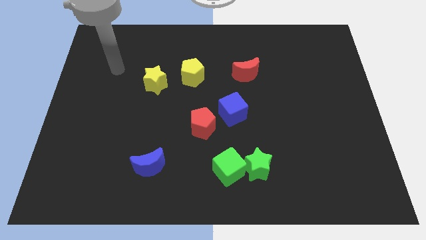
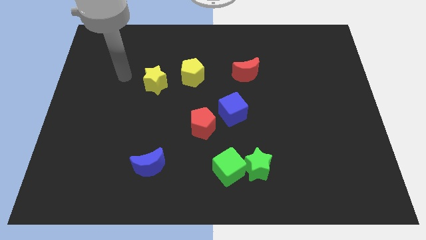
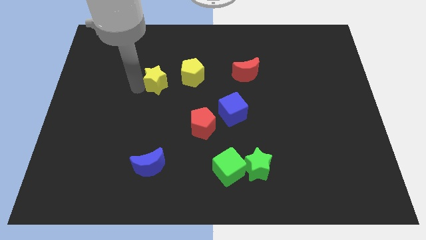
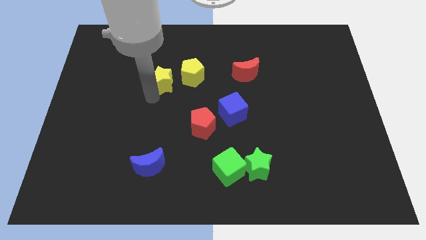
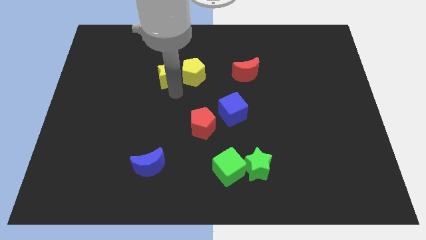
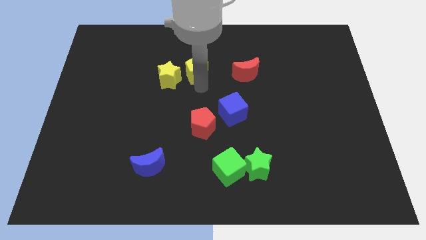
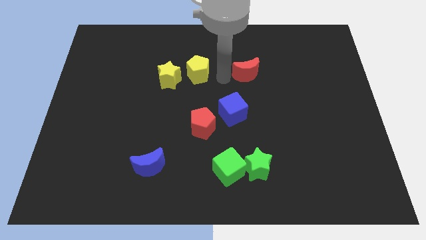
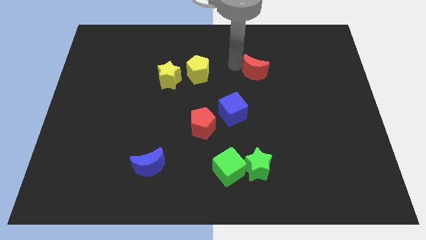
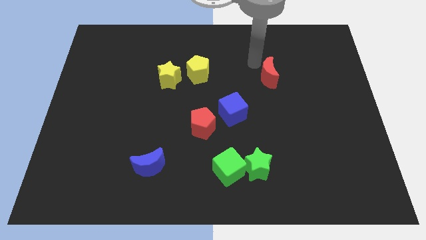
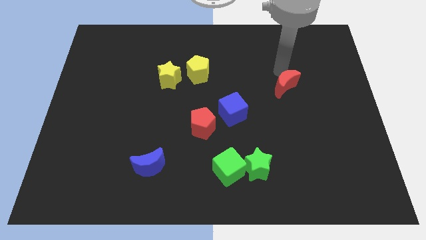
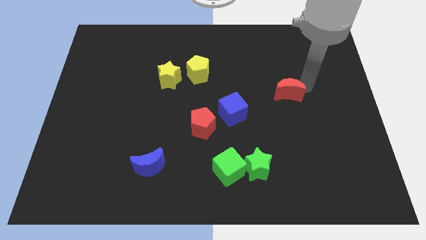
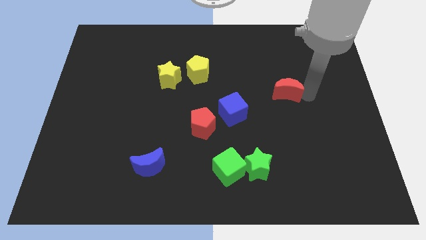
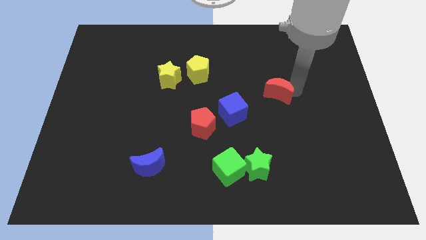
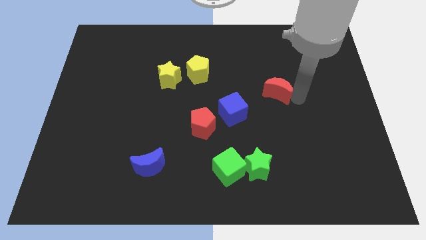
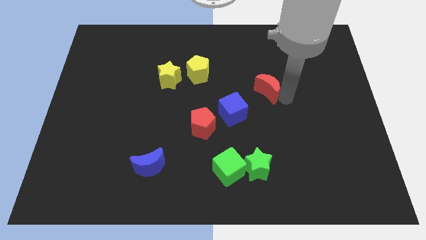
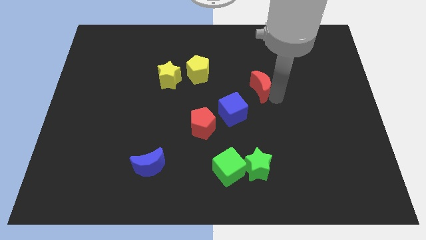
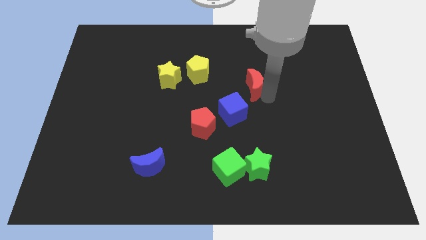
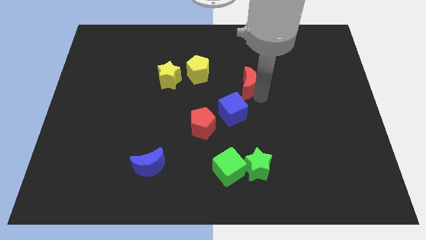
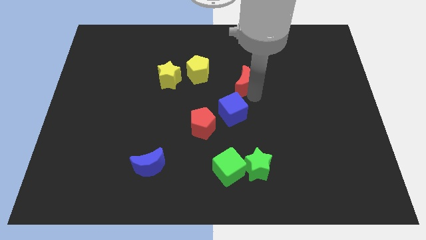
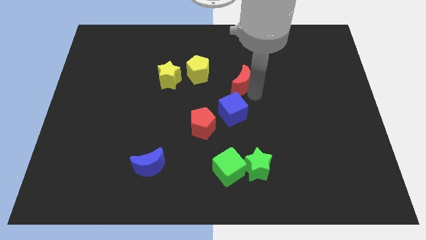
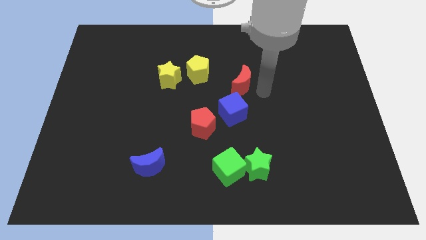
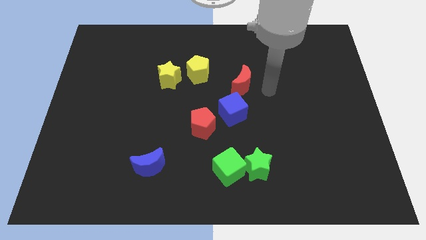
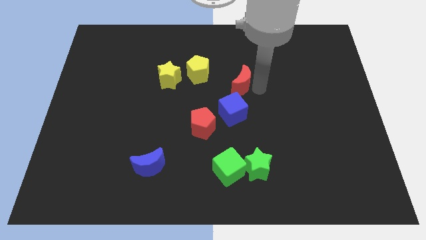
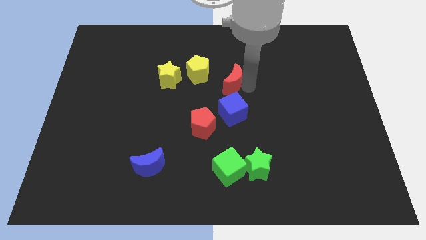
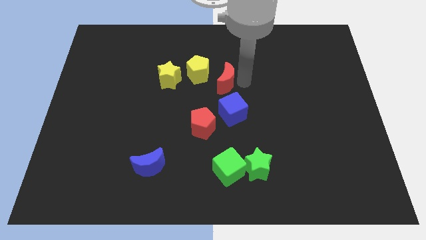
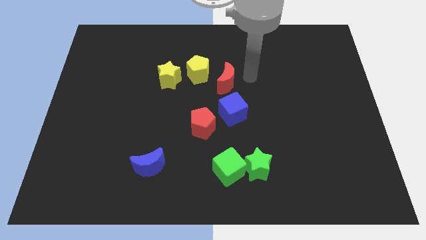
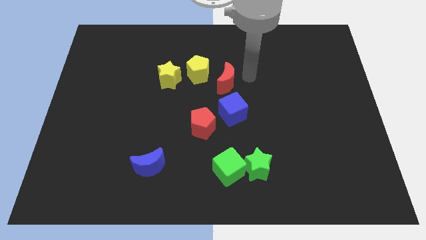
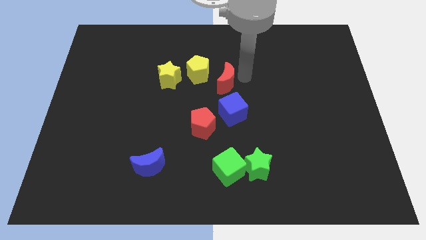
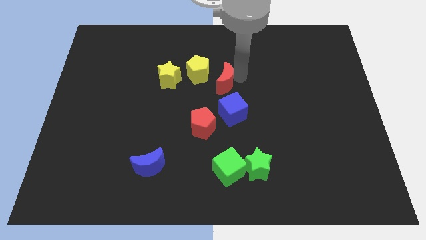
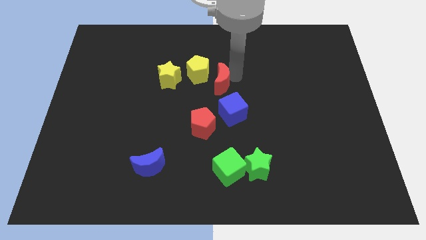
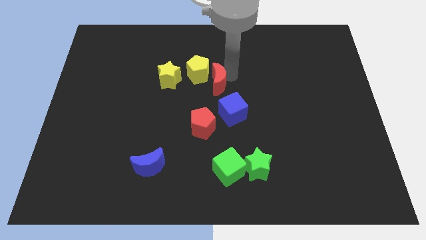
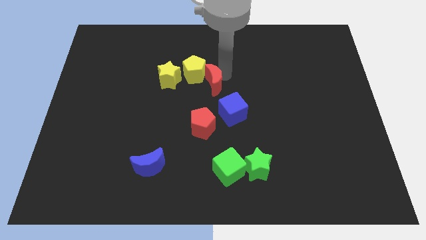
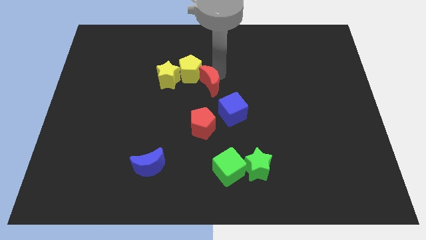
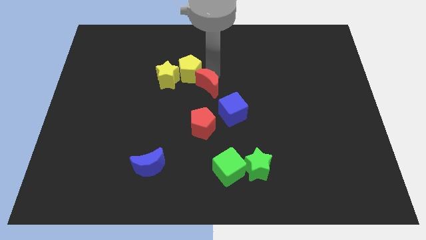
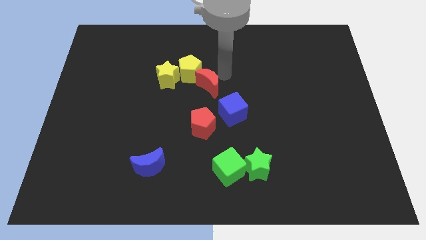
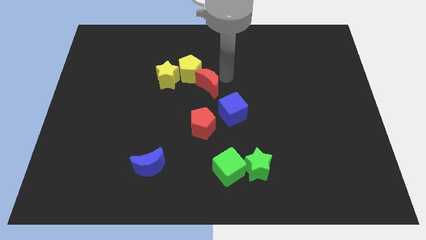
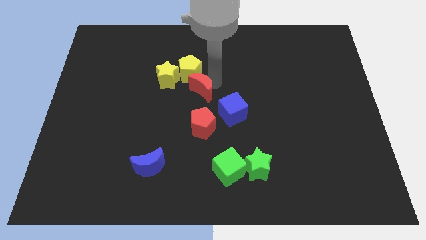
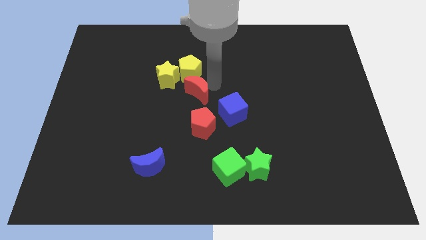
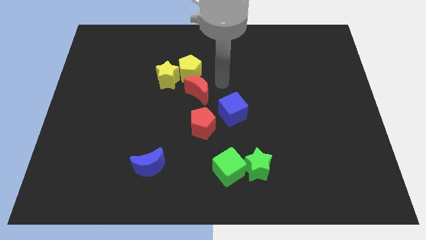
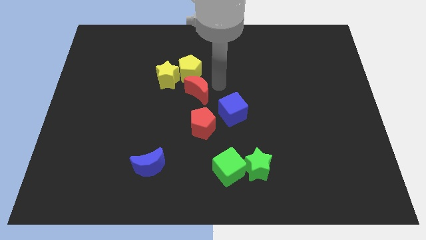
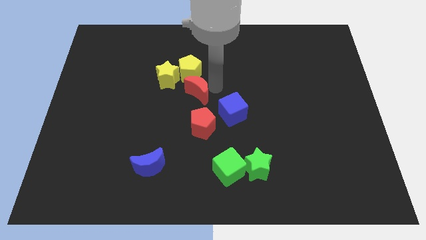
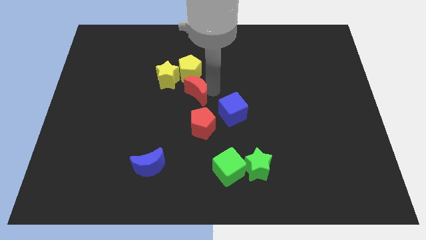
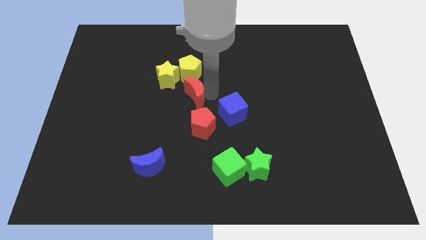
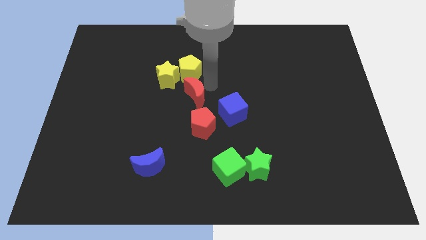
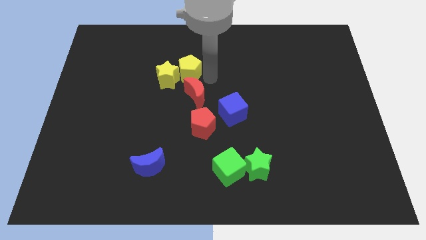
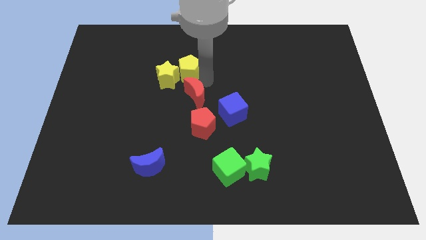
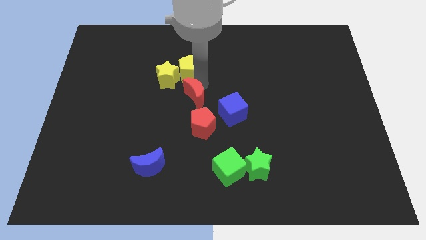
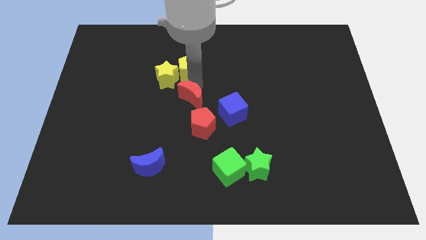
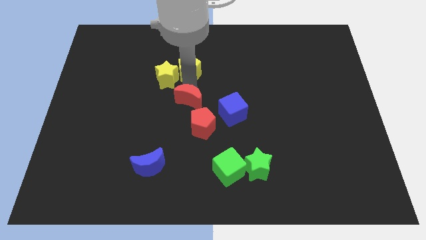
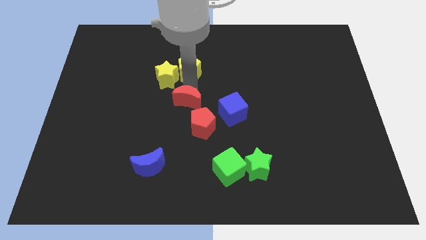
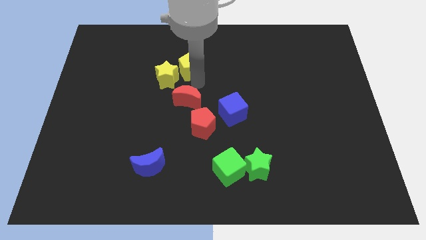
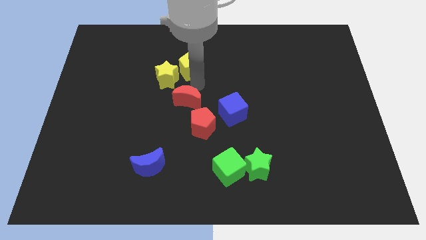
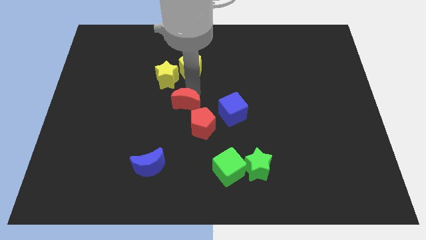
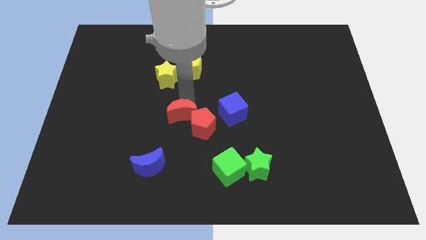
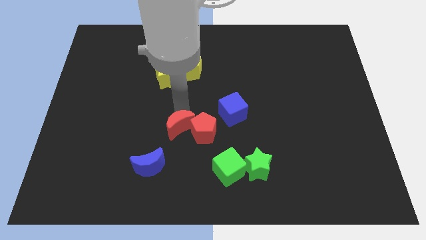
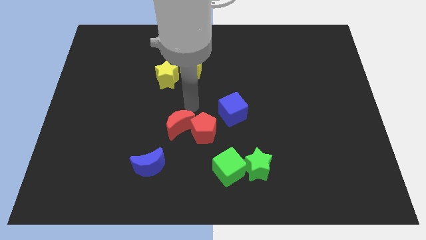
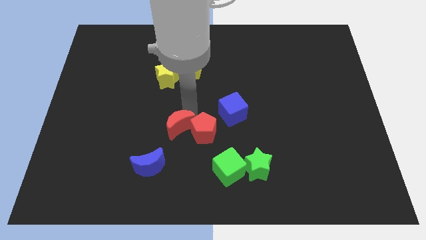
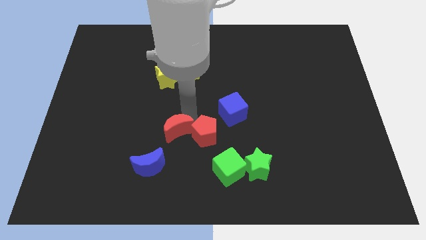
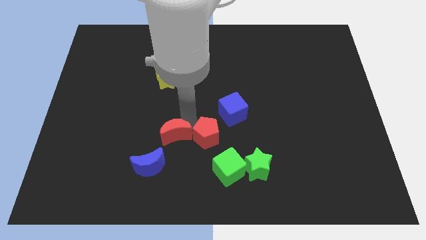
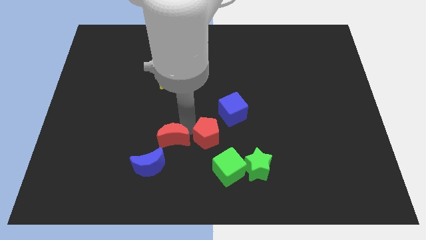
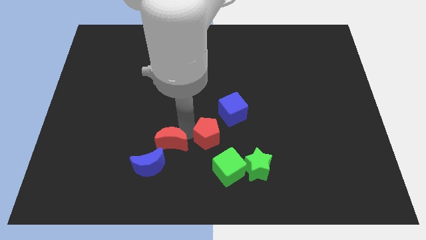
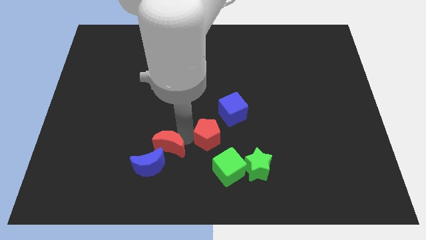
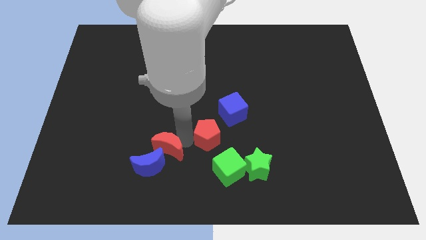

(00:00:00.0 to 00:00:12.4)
move the red moon towards the blue moon

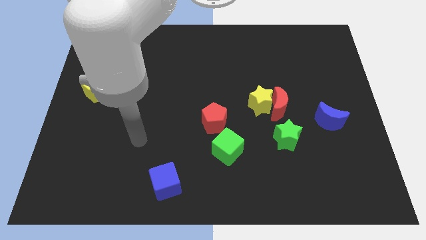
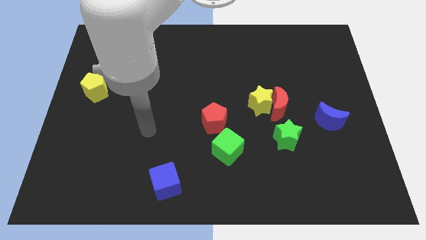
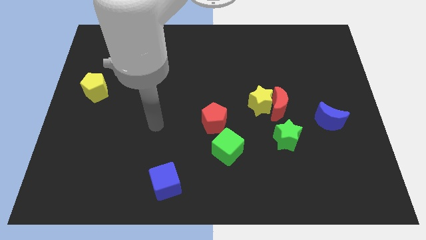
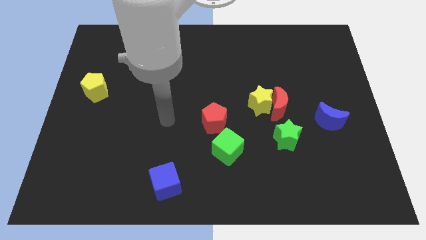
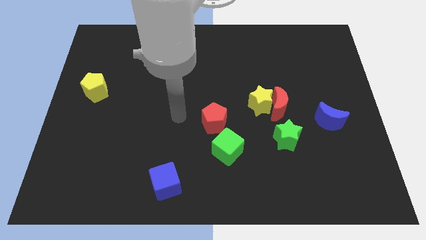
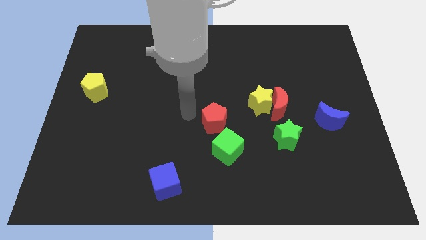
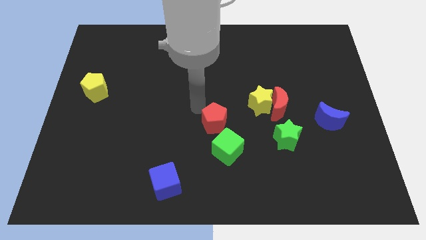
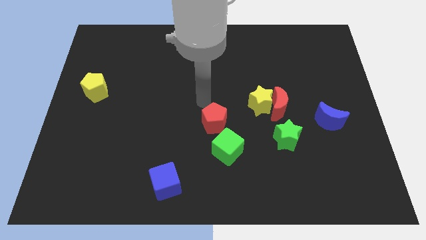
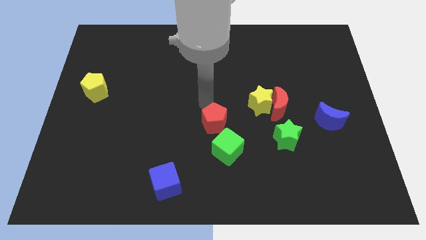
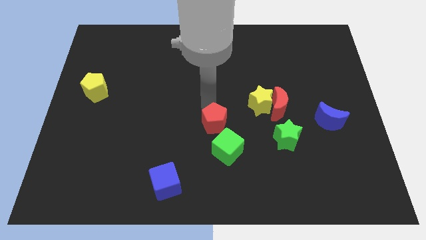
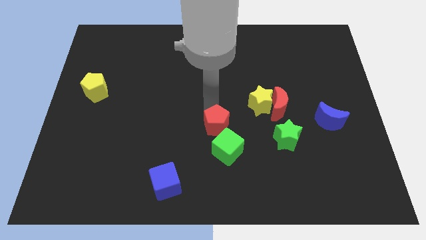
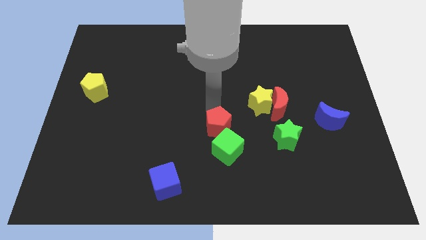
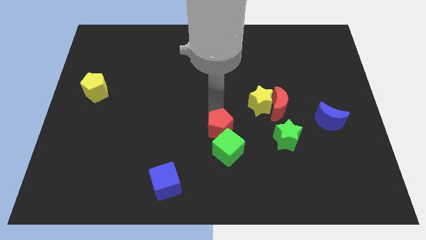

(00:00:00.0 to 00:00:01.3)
move the red pentagon to the green cube
